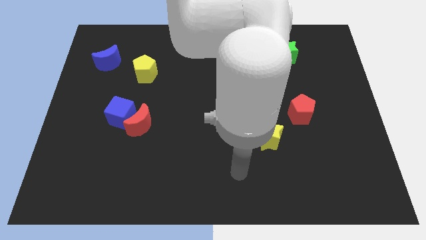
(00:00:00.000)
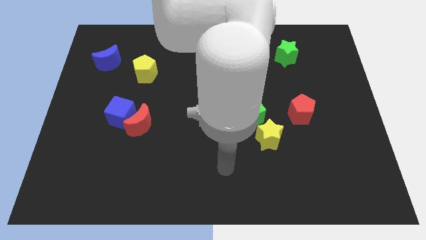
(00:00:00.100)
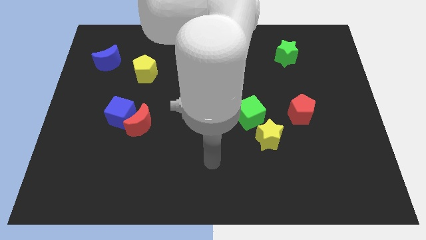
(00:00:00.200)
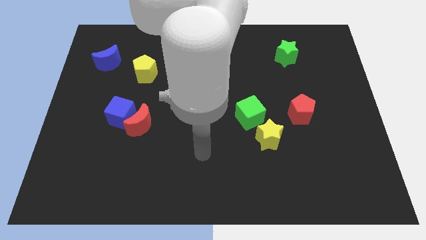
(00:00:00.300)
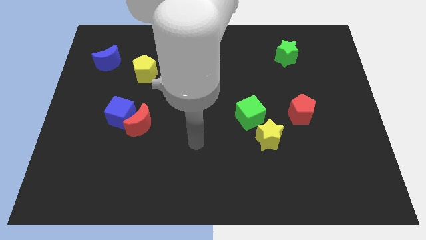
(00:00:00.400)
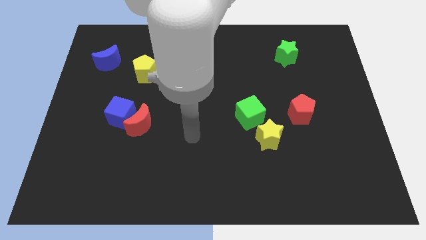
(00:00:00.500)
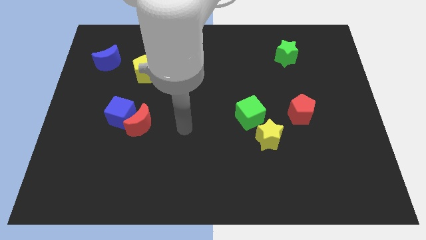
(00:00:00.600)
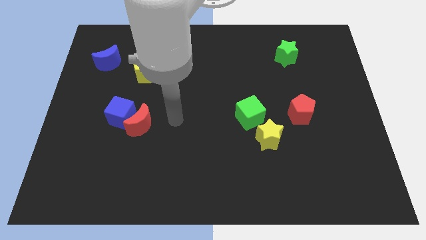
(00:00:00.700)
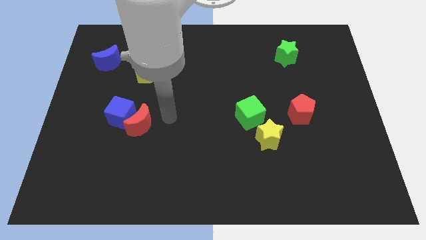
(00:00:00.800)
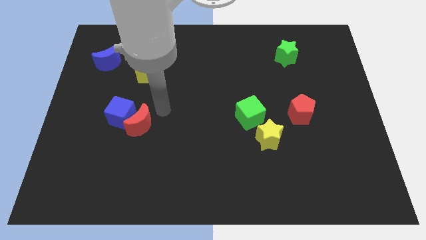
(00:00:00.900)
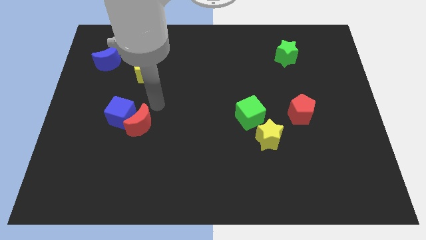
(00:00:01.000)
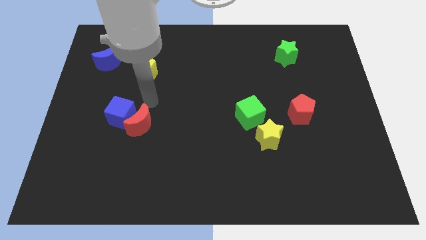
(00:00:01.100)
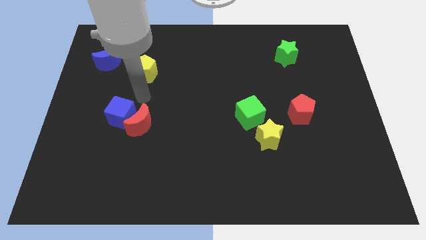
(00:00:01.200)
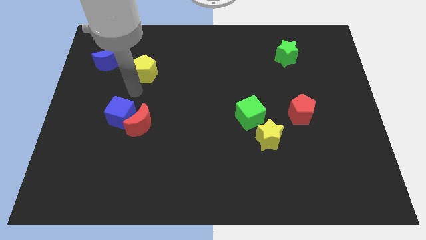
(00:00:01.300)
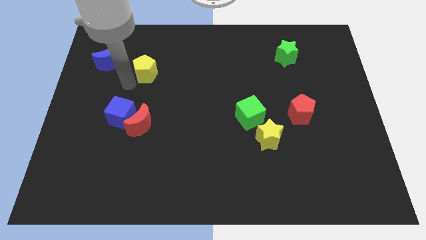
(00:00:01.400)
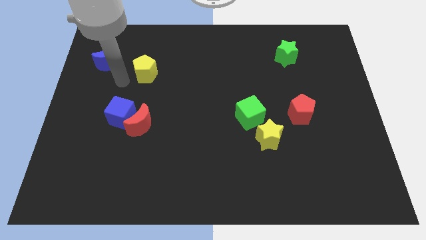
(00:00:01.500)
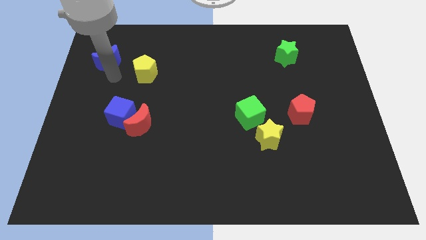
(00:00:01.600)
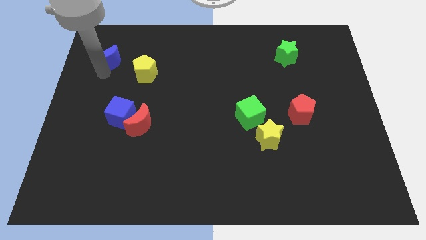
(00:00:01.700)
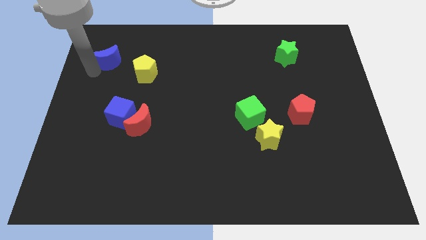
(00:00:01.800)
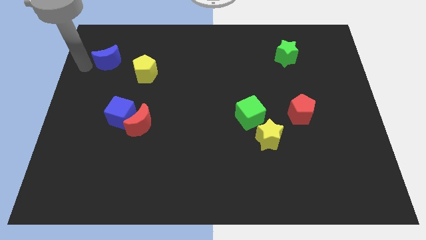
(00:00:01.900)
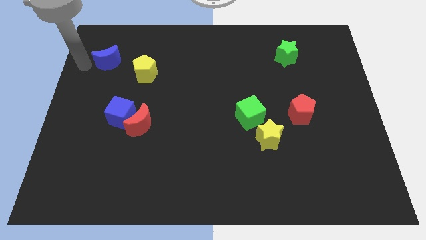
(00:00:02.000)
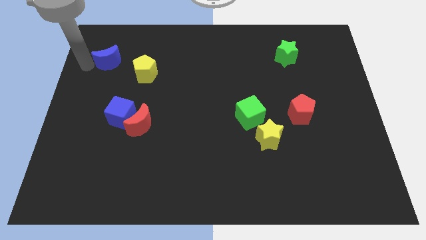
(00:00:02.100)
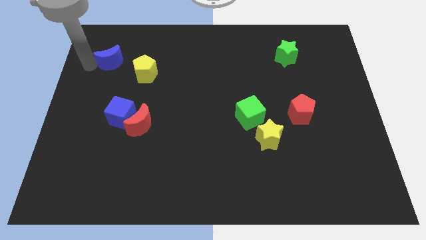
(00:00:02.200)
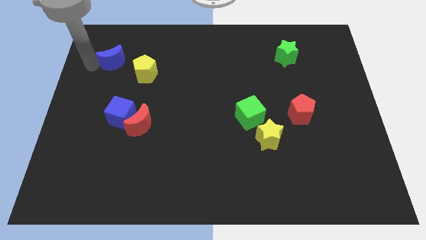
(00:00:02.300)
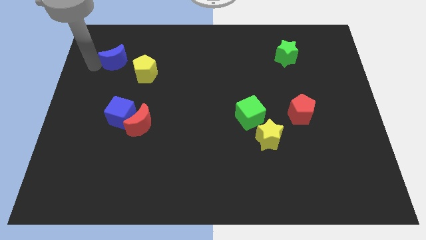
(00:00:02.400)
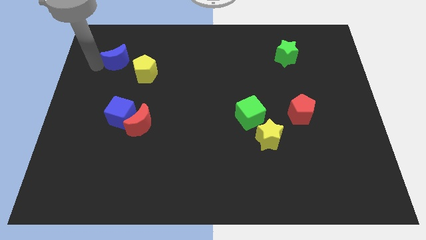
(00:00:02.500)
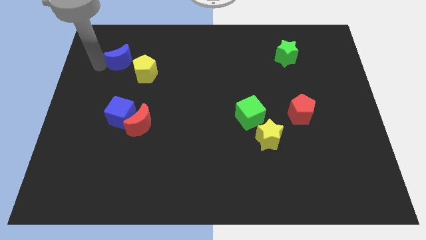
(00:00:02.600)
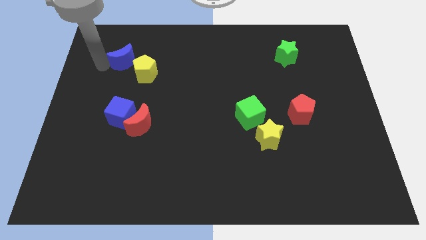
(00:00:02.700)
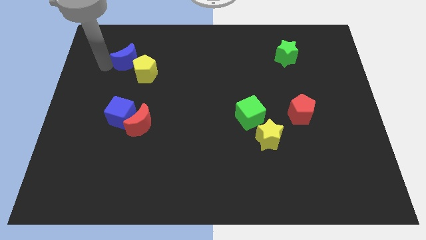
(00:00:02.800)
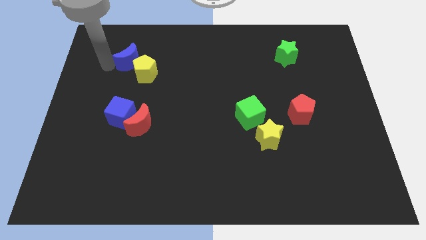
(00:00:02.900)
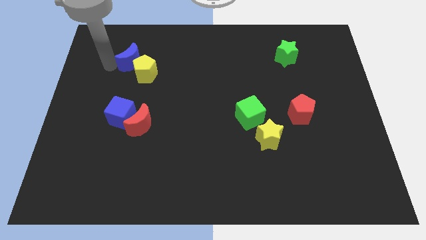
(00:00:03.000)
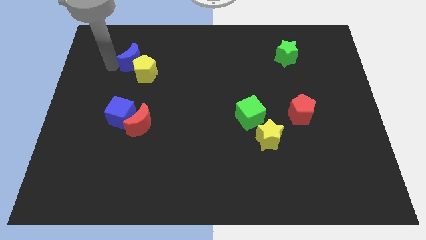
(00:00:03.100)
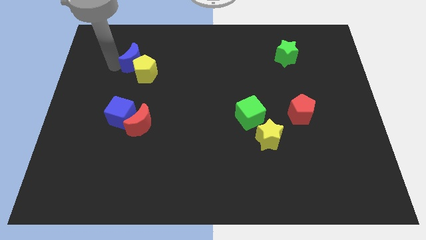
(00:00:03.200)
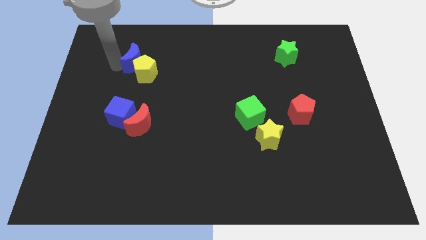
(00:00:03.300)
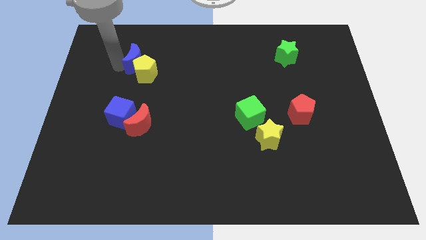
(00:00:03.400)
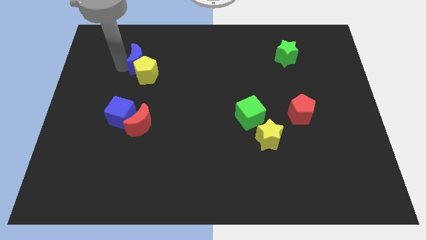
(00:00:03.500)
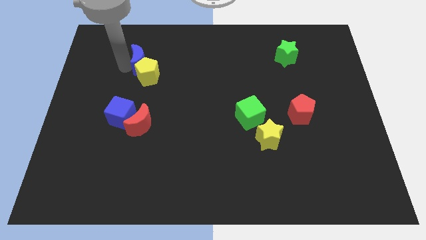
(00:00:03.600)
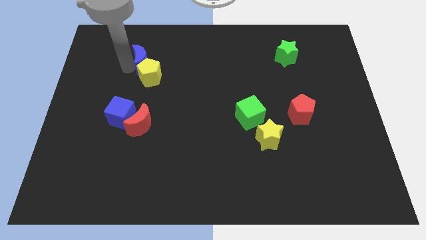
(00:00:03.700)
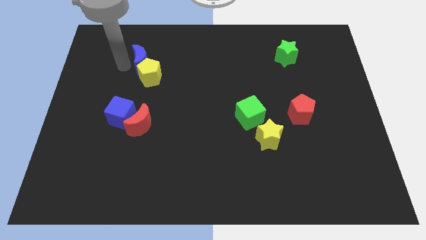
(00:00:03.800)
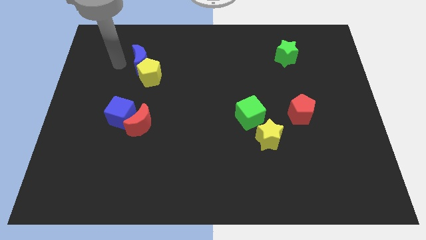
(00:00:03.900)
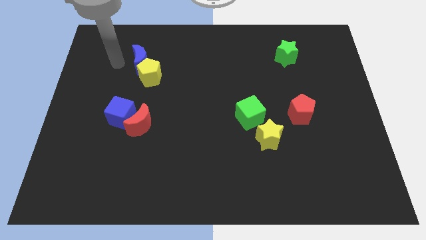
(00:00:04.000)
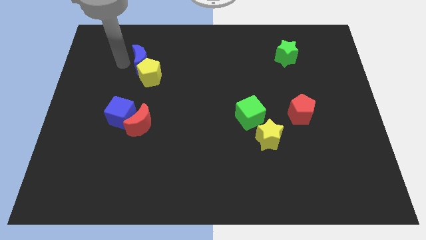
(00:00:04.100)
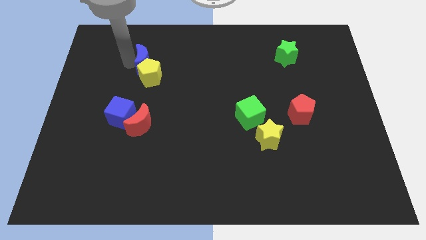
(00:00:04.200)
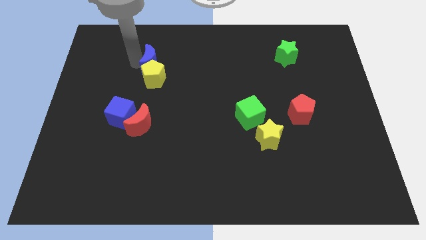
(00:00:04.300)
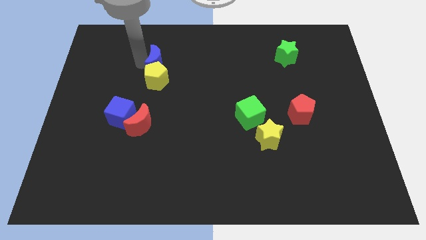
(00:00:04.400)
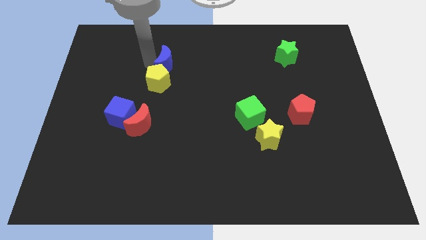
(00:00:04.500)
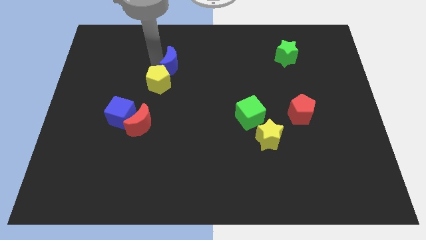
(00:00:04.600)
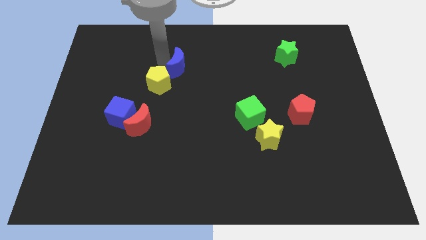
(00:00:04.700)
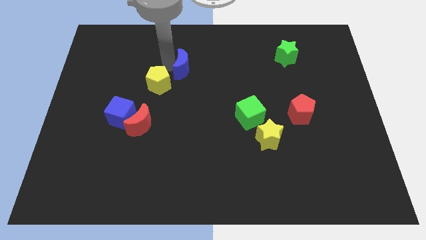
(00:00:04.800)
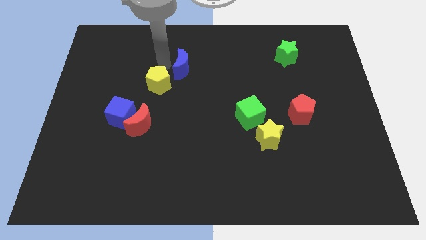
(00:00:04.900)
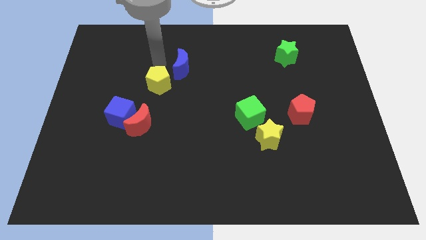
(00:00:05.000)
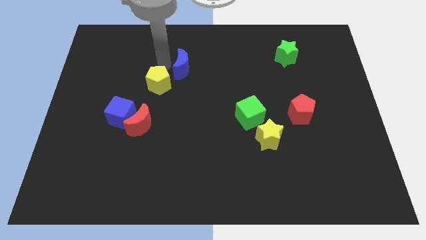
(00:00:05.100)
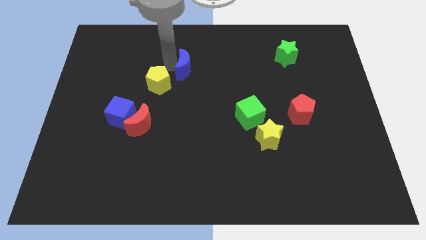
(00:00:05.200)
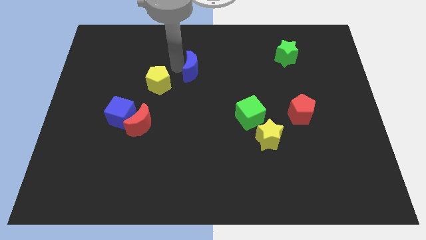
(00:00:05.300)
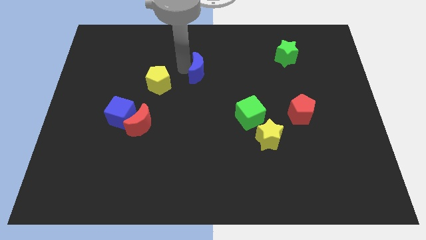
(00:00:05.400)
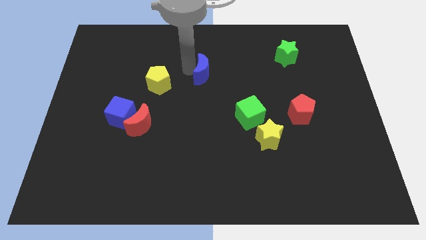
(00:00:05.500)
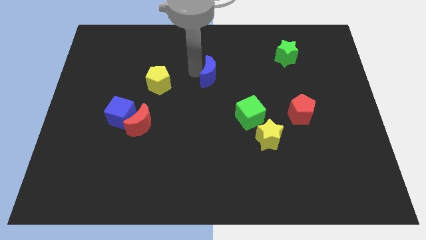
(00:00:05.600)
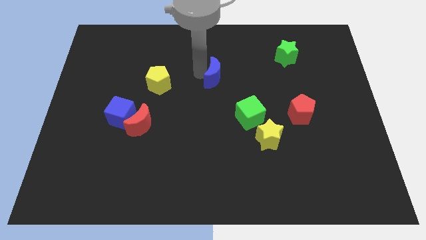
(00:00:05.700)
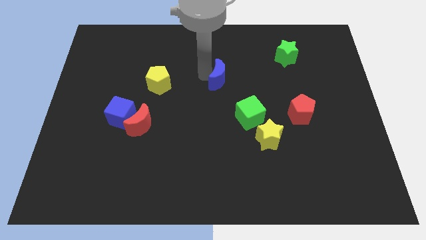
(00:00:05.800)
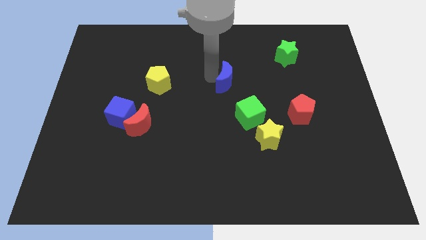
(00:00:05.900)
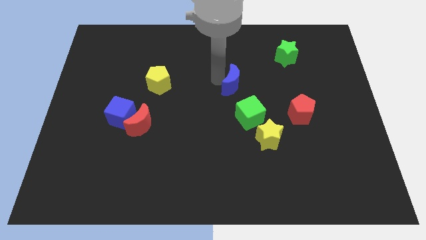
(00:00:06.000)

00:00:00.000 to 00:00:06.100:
move the blue moon to the top side of the green cube

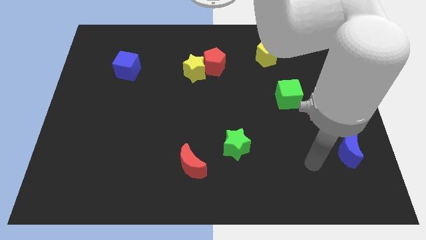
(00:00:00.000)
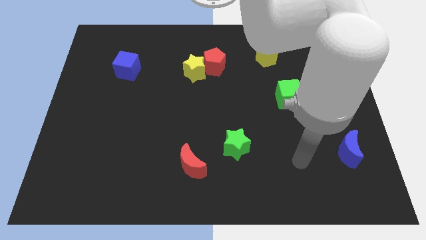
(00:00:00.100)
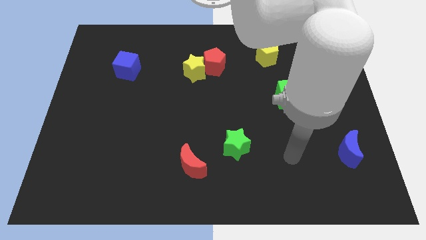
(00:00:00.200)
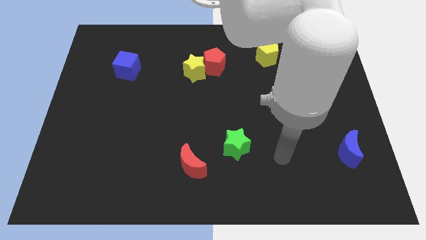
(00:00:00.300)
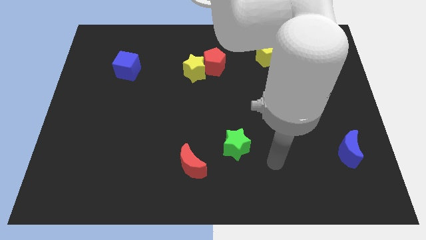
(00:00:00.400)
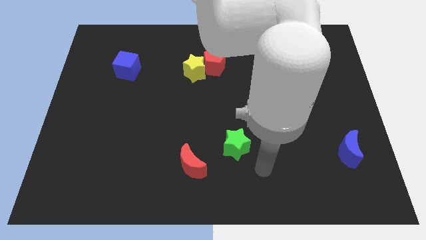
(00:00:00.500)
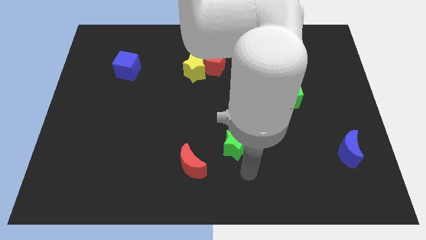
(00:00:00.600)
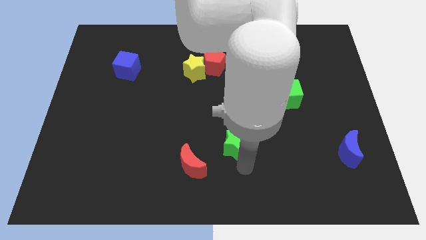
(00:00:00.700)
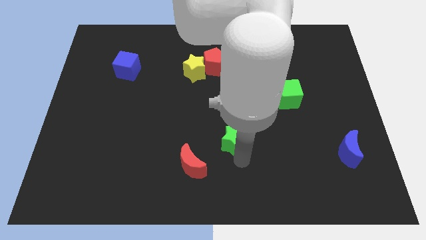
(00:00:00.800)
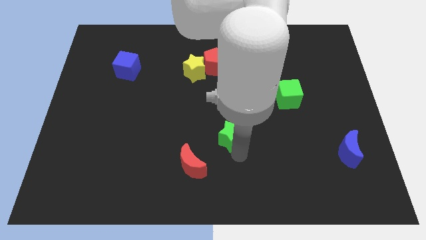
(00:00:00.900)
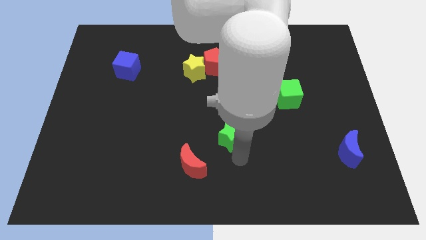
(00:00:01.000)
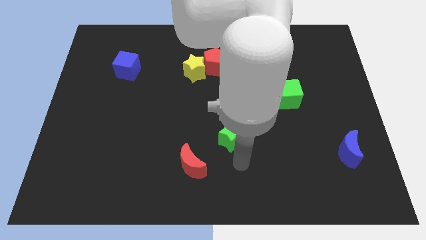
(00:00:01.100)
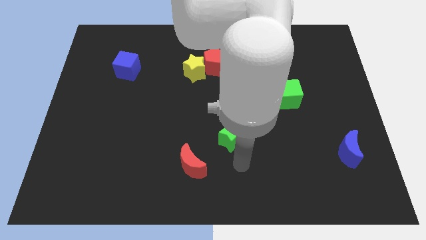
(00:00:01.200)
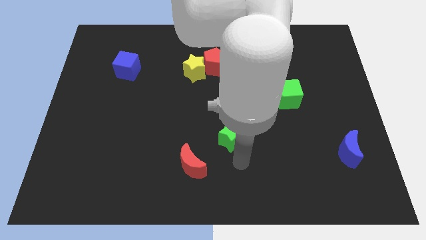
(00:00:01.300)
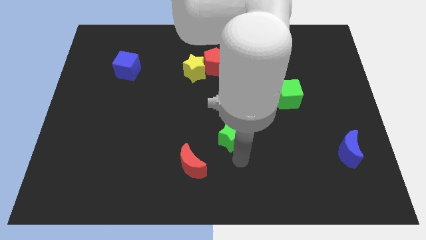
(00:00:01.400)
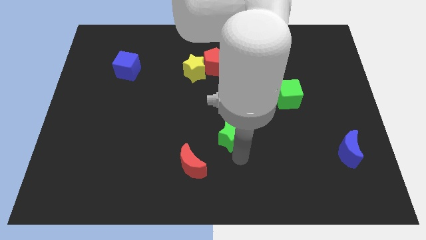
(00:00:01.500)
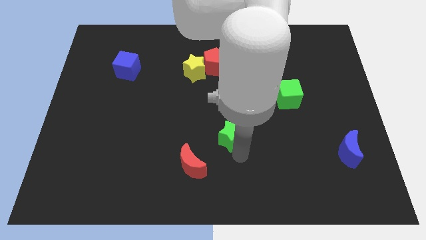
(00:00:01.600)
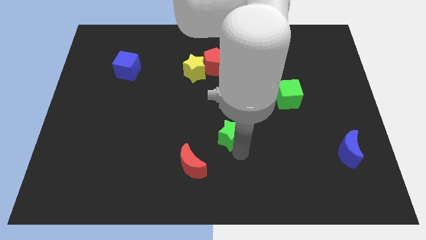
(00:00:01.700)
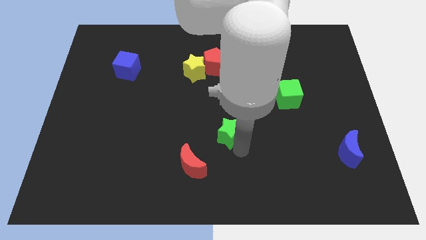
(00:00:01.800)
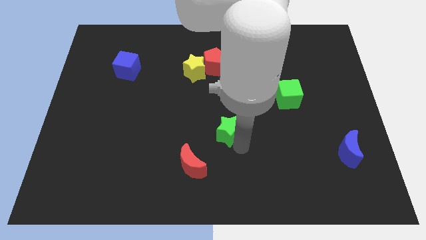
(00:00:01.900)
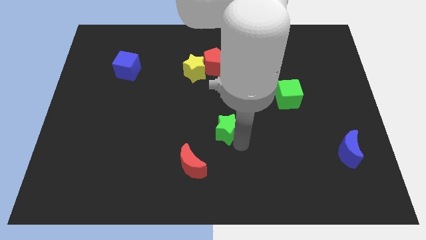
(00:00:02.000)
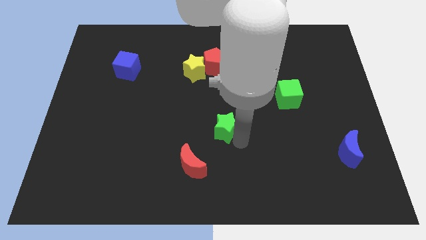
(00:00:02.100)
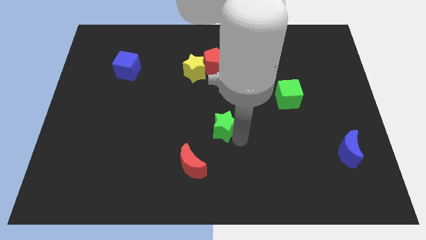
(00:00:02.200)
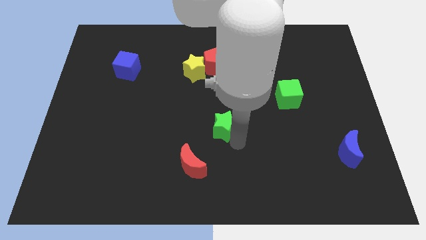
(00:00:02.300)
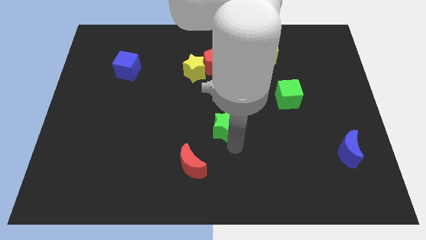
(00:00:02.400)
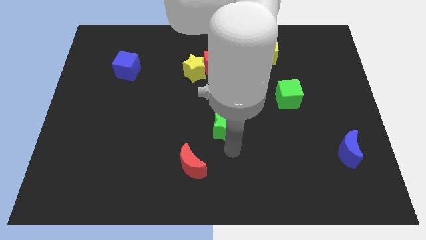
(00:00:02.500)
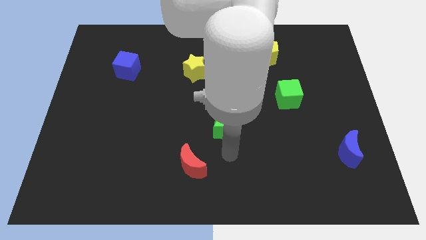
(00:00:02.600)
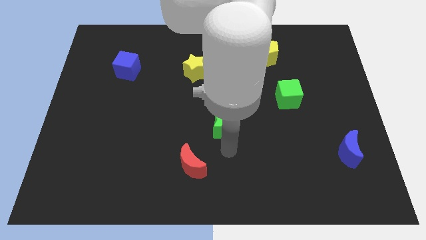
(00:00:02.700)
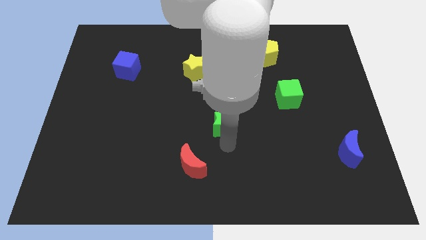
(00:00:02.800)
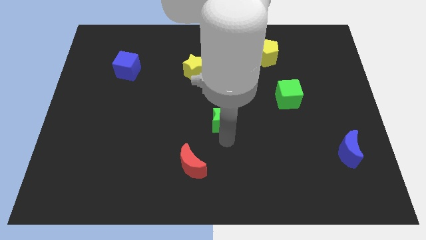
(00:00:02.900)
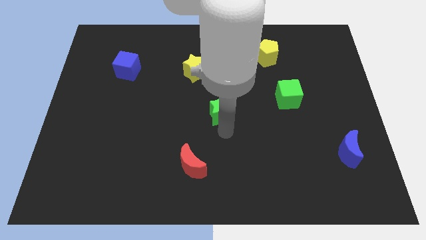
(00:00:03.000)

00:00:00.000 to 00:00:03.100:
push the green star below the red pentagon
